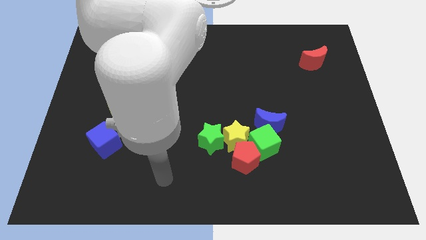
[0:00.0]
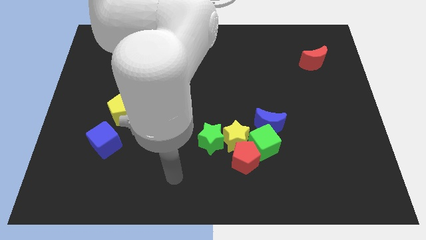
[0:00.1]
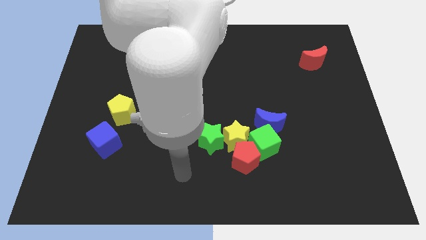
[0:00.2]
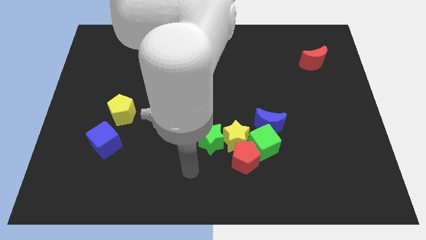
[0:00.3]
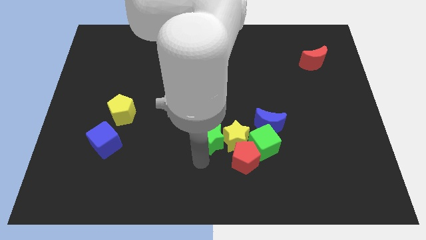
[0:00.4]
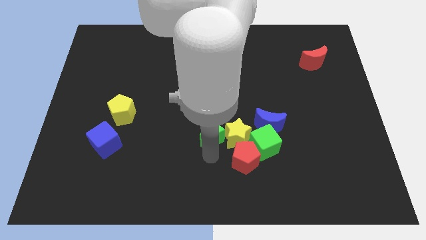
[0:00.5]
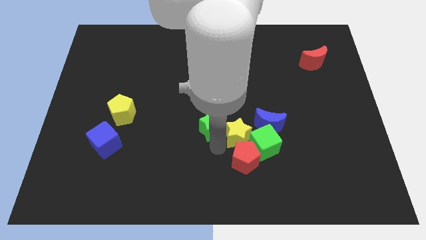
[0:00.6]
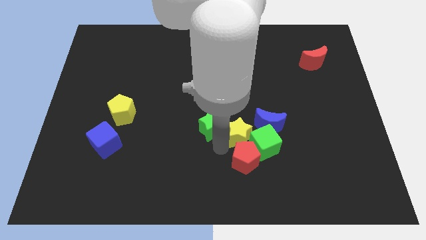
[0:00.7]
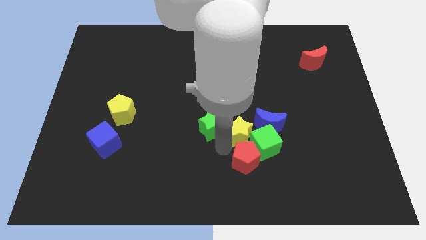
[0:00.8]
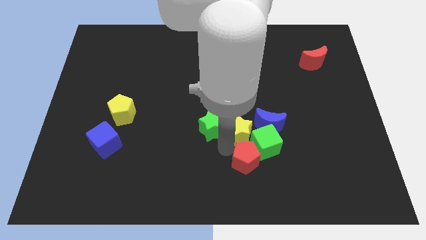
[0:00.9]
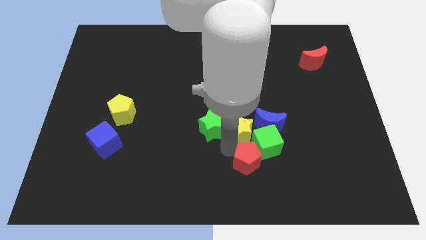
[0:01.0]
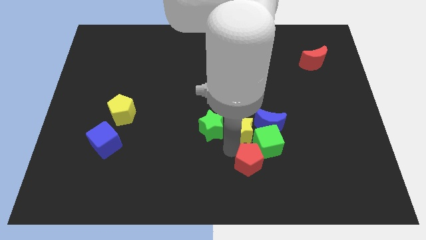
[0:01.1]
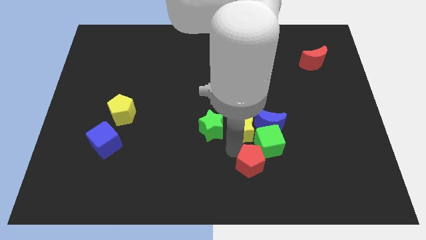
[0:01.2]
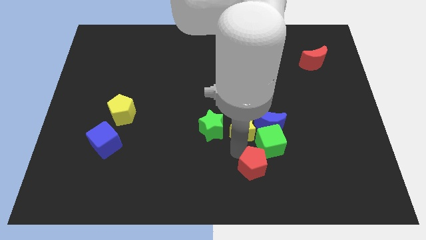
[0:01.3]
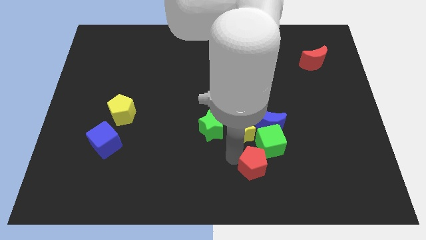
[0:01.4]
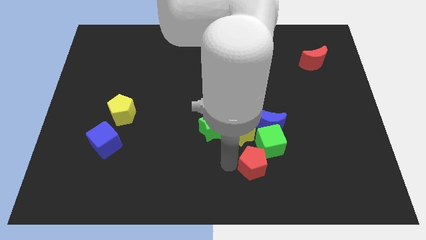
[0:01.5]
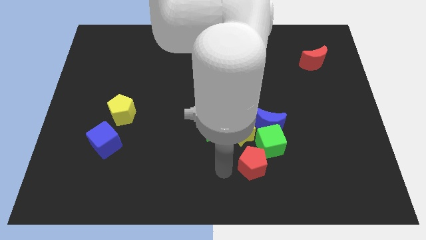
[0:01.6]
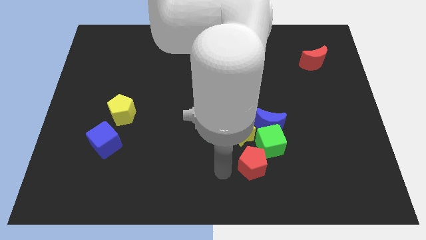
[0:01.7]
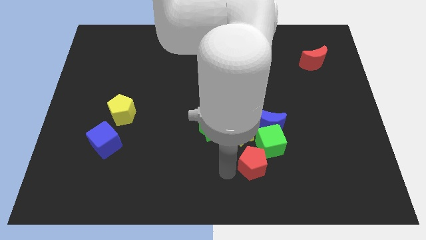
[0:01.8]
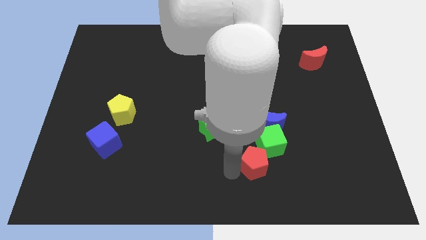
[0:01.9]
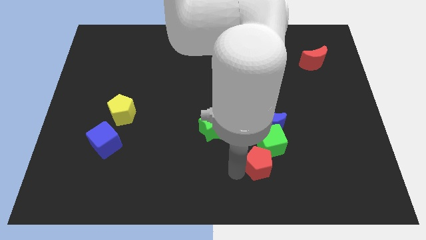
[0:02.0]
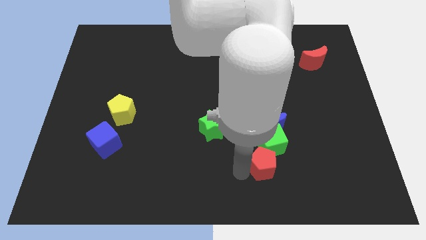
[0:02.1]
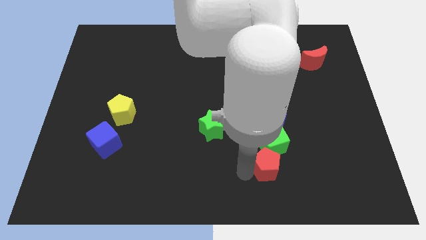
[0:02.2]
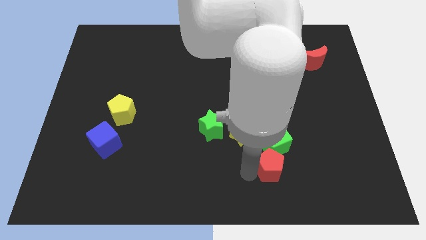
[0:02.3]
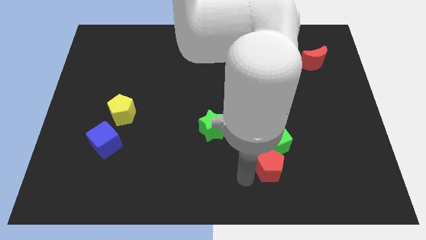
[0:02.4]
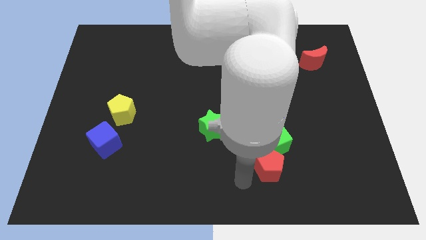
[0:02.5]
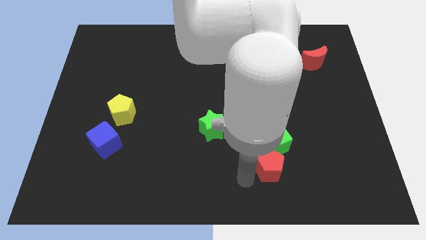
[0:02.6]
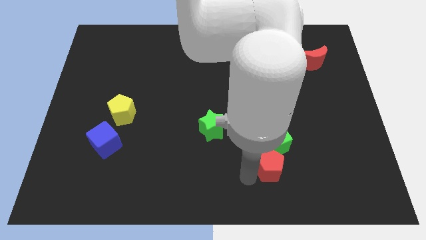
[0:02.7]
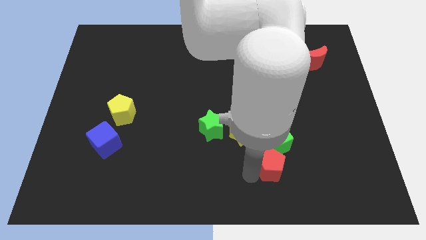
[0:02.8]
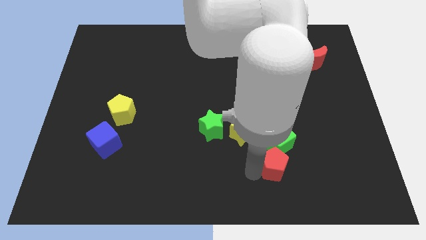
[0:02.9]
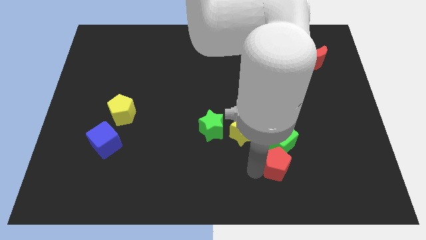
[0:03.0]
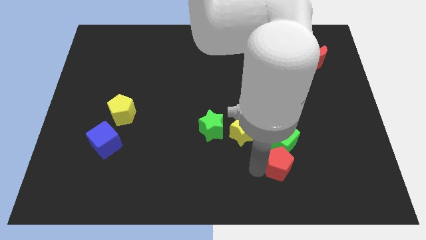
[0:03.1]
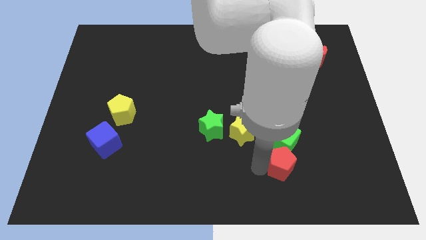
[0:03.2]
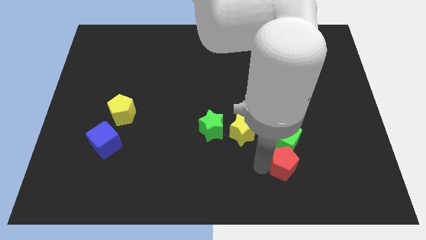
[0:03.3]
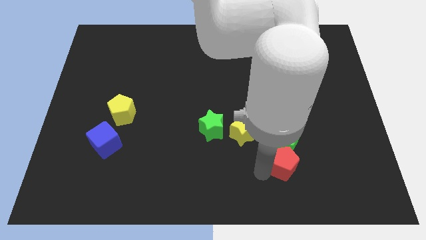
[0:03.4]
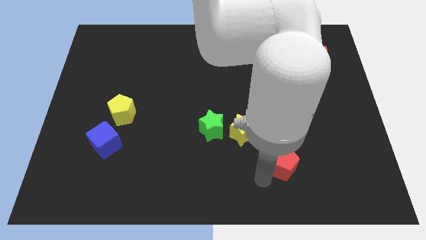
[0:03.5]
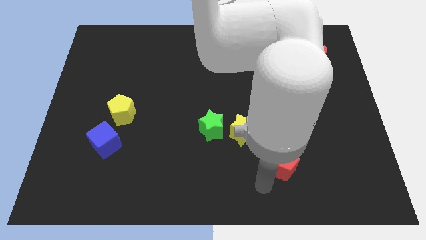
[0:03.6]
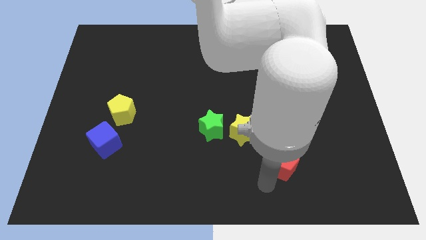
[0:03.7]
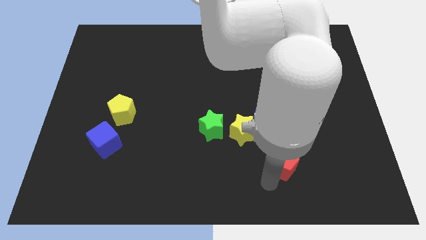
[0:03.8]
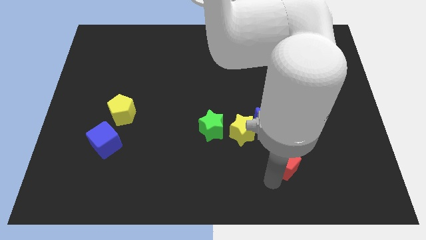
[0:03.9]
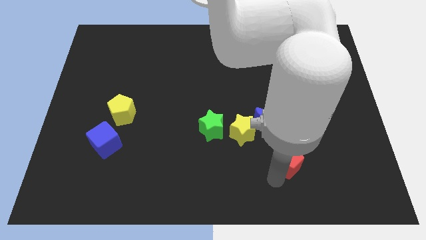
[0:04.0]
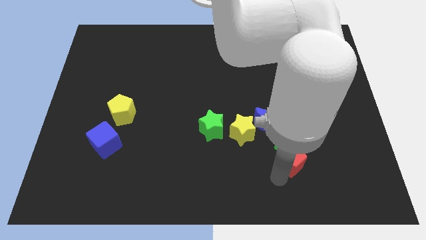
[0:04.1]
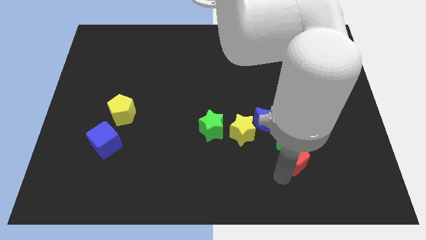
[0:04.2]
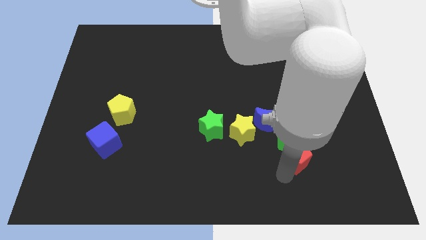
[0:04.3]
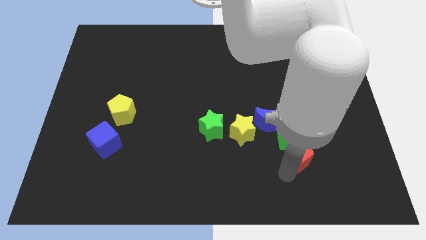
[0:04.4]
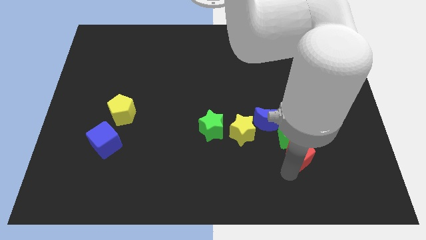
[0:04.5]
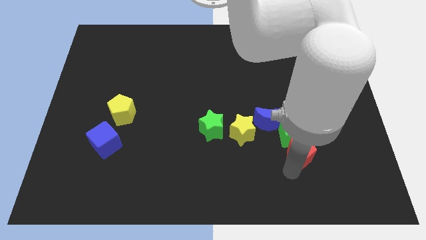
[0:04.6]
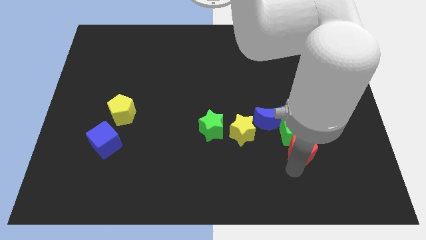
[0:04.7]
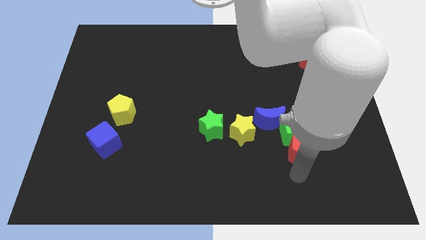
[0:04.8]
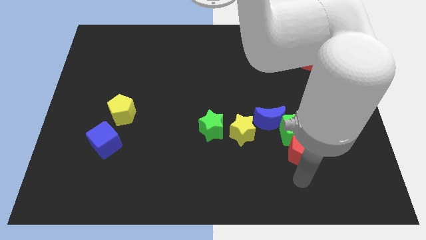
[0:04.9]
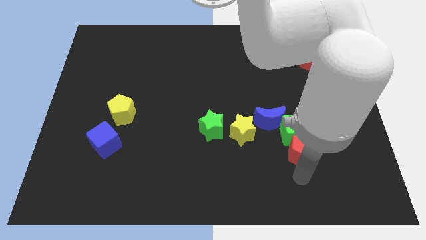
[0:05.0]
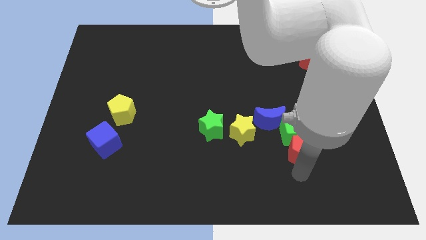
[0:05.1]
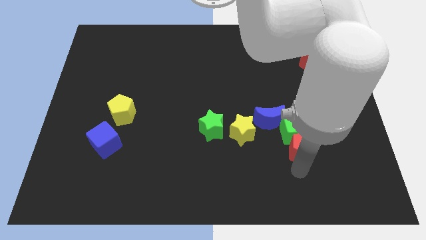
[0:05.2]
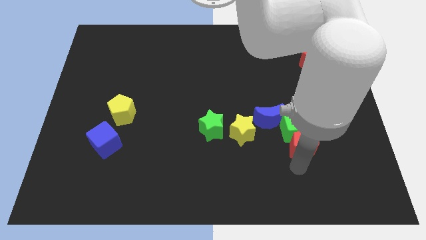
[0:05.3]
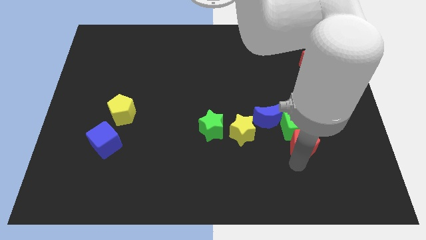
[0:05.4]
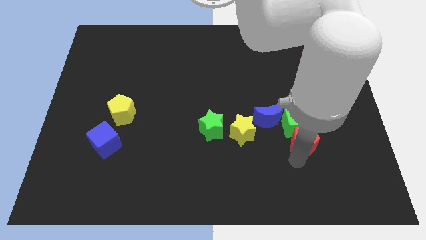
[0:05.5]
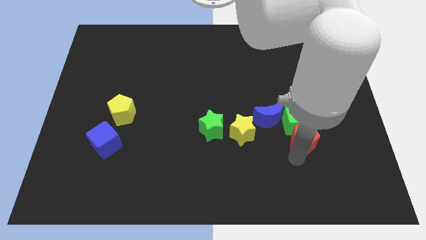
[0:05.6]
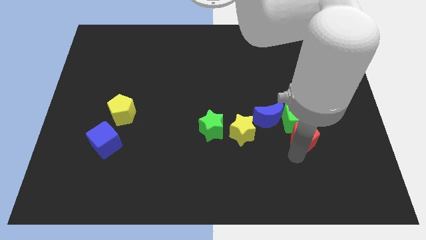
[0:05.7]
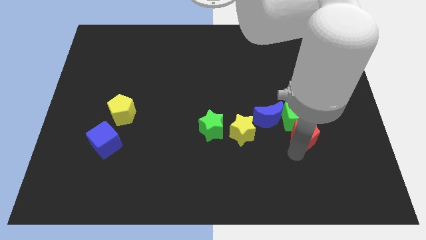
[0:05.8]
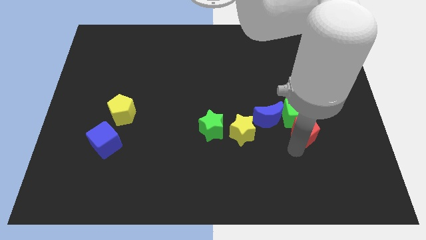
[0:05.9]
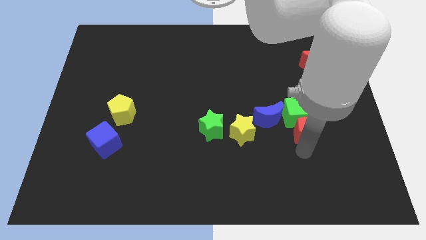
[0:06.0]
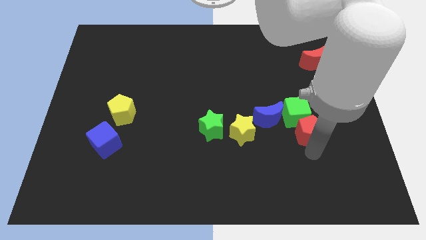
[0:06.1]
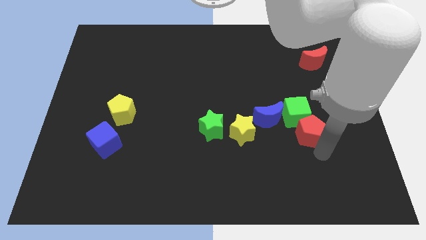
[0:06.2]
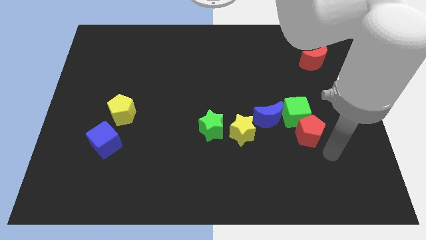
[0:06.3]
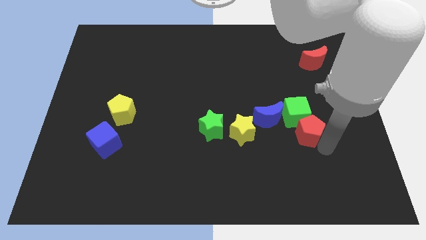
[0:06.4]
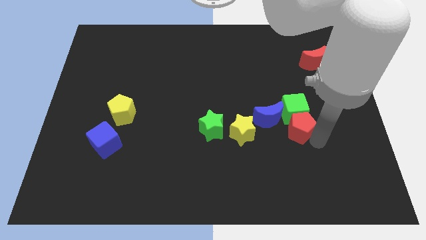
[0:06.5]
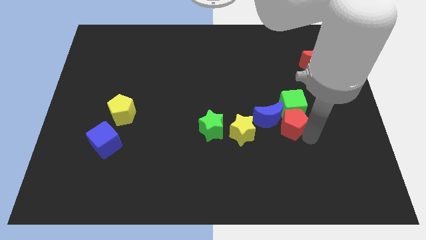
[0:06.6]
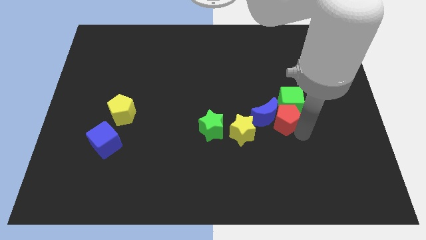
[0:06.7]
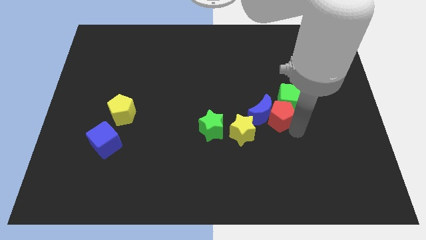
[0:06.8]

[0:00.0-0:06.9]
slightly move the red pentagon up

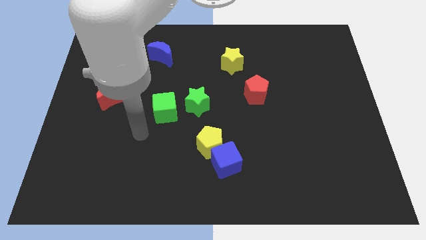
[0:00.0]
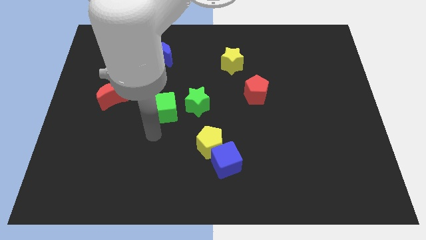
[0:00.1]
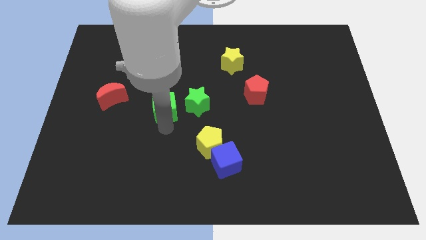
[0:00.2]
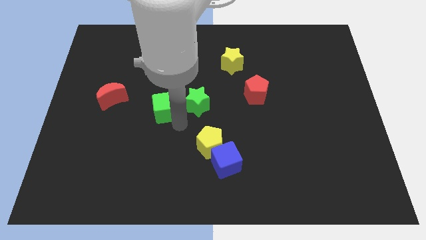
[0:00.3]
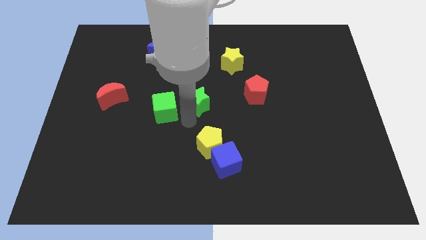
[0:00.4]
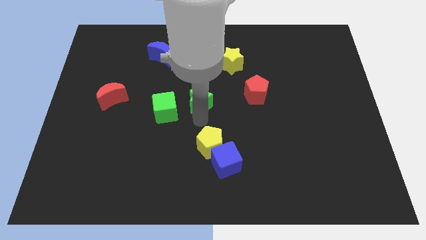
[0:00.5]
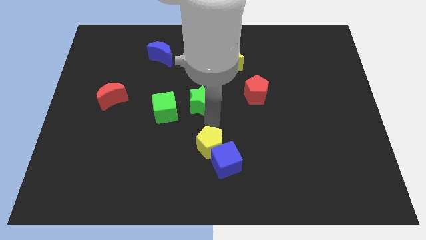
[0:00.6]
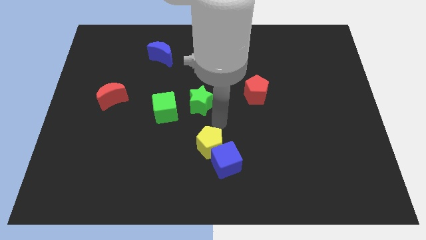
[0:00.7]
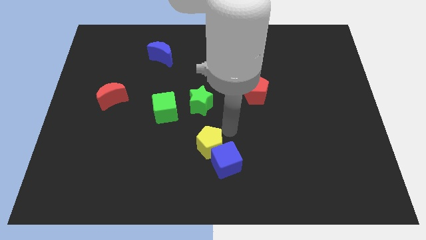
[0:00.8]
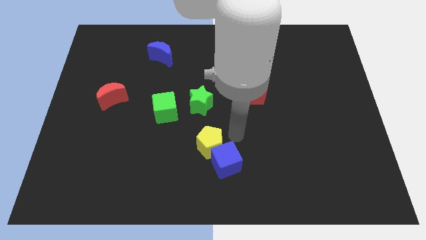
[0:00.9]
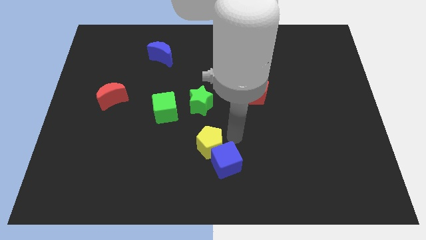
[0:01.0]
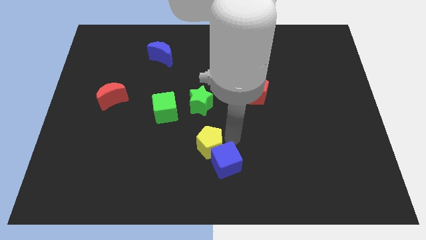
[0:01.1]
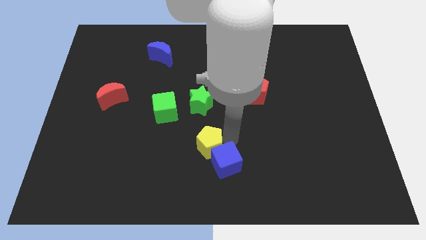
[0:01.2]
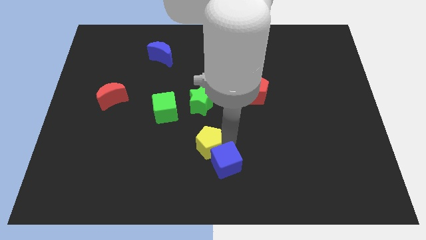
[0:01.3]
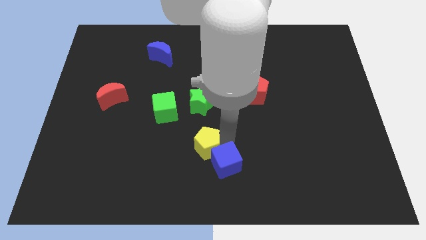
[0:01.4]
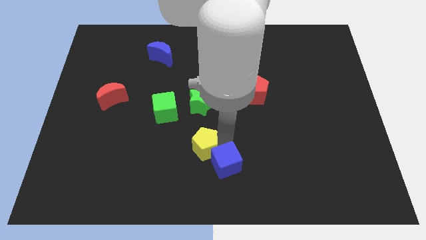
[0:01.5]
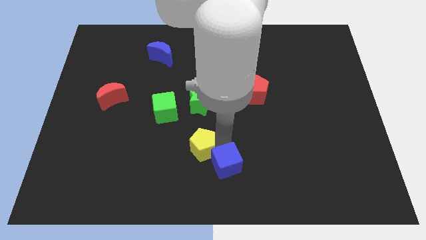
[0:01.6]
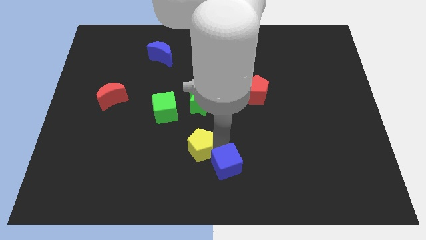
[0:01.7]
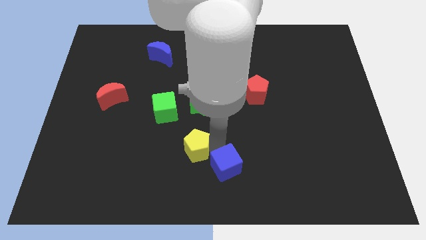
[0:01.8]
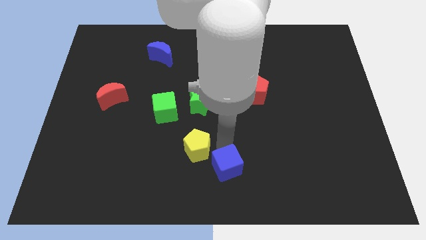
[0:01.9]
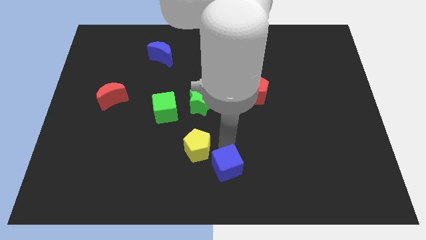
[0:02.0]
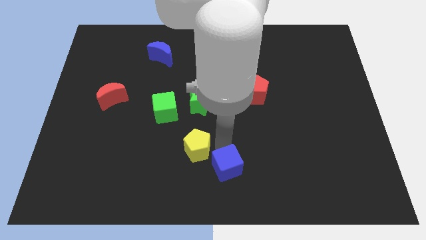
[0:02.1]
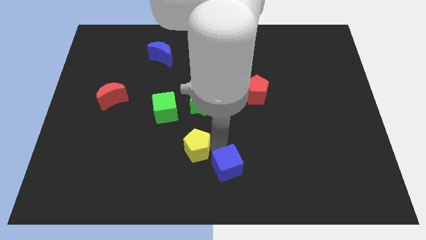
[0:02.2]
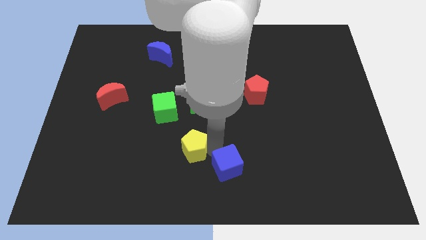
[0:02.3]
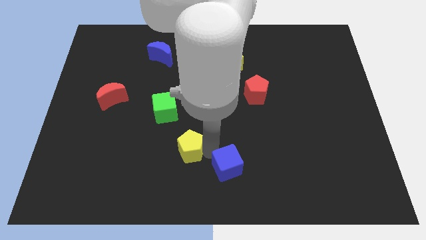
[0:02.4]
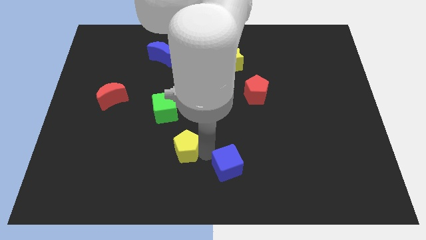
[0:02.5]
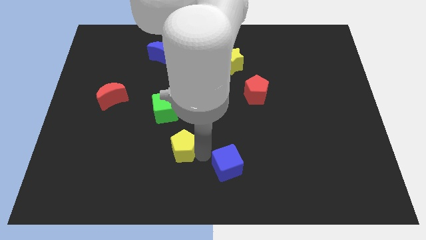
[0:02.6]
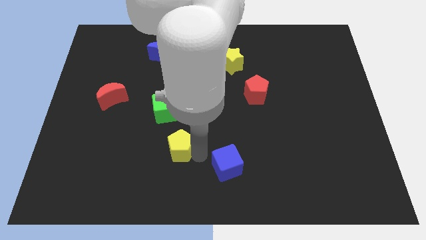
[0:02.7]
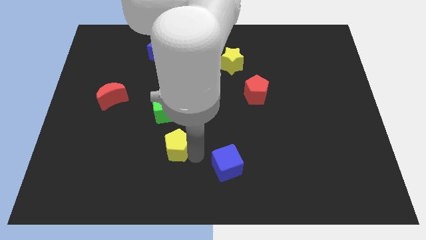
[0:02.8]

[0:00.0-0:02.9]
push the yellow pentagon to the left somewhat
